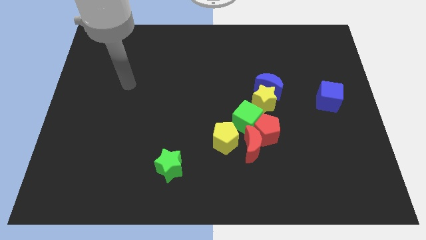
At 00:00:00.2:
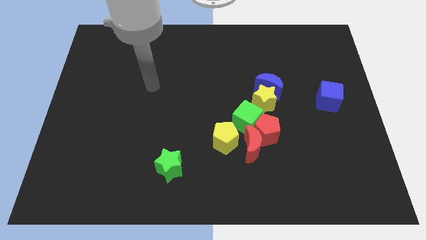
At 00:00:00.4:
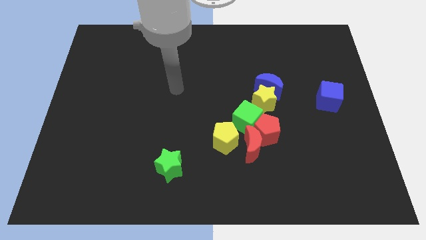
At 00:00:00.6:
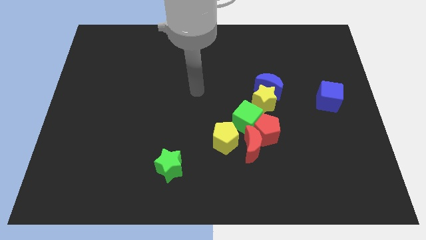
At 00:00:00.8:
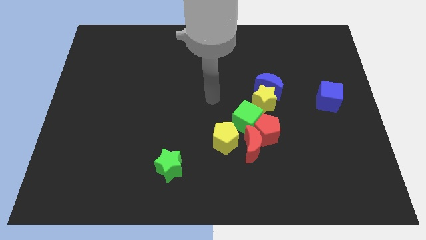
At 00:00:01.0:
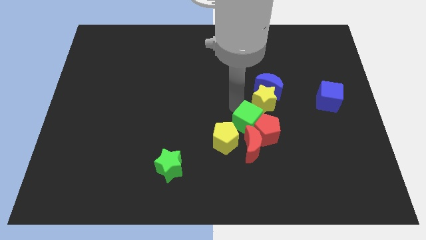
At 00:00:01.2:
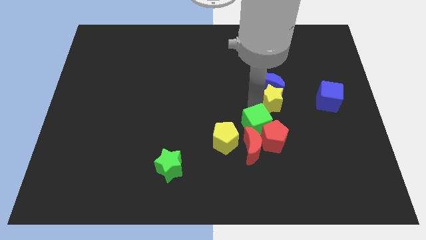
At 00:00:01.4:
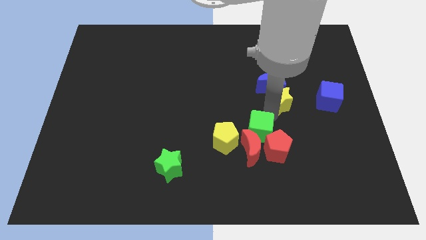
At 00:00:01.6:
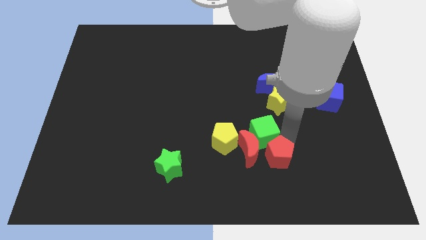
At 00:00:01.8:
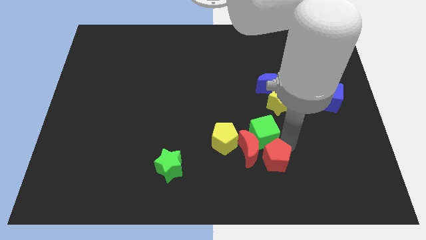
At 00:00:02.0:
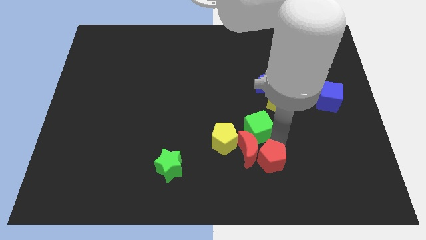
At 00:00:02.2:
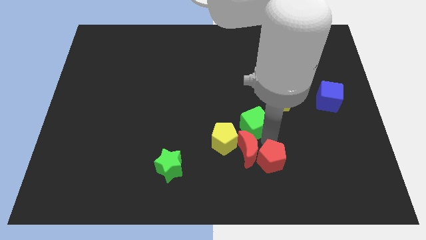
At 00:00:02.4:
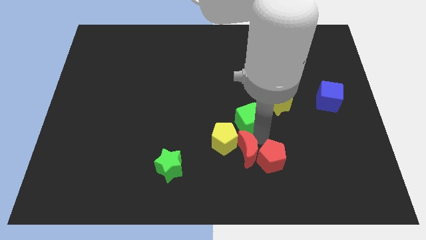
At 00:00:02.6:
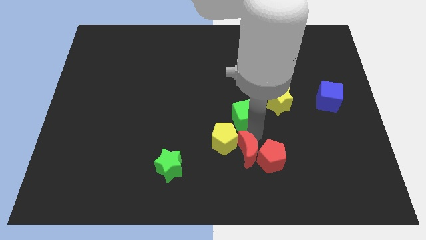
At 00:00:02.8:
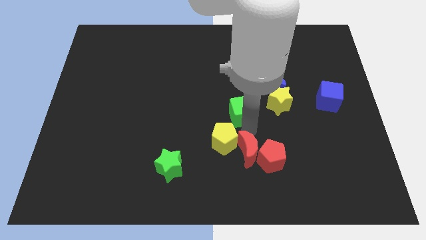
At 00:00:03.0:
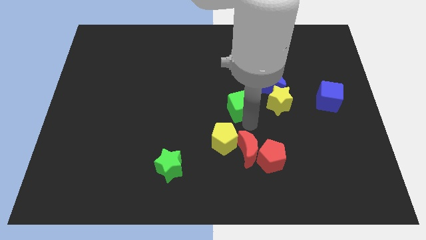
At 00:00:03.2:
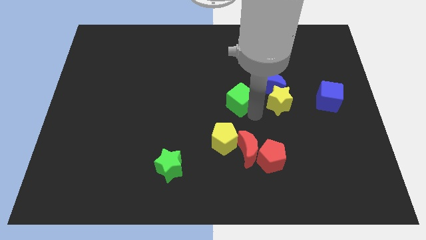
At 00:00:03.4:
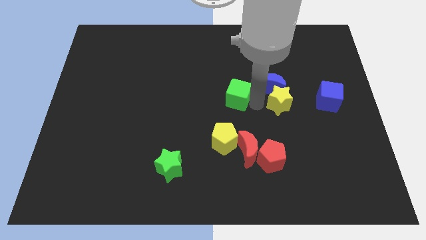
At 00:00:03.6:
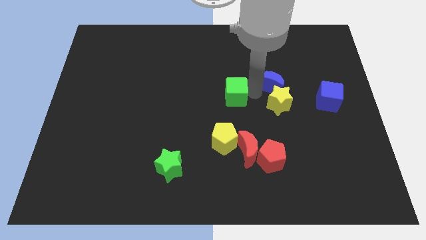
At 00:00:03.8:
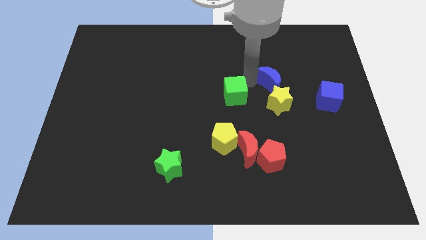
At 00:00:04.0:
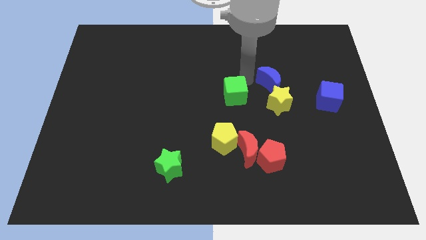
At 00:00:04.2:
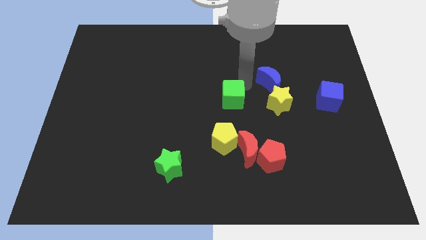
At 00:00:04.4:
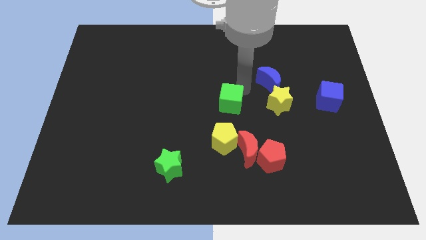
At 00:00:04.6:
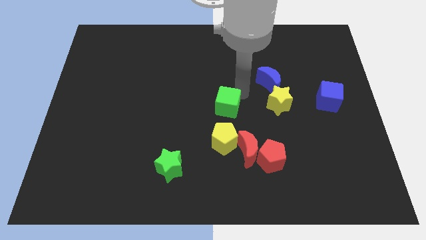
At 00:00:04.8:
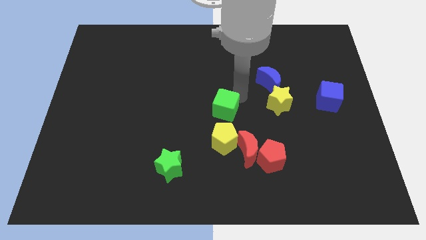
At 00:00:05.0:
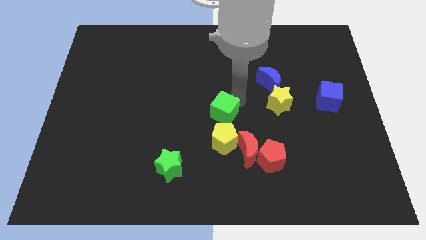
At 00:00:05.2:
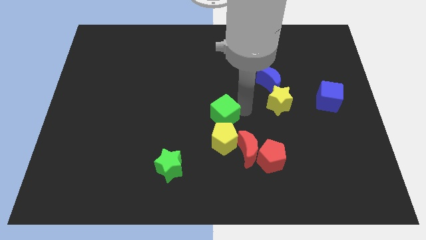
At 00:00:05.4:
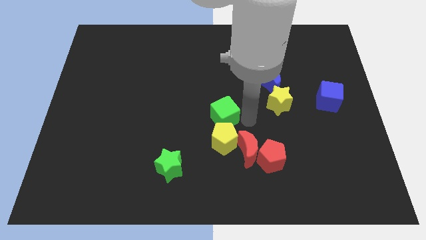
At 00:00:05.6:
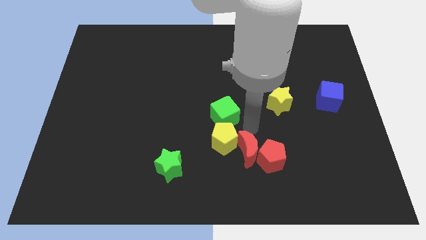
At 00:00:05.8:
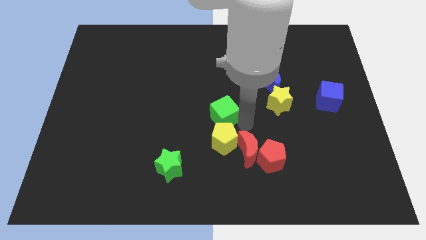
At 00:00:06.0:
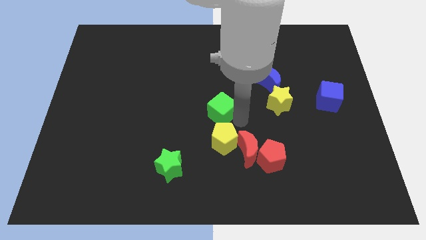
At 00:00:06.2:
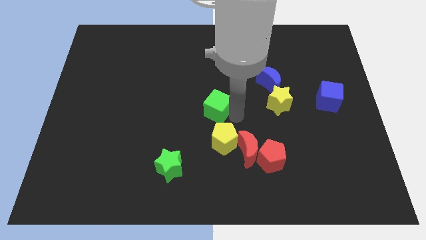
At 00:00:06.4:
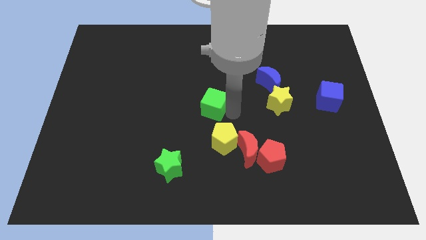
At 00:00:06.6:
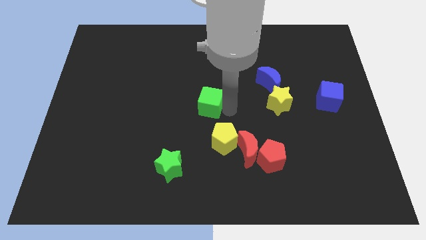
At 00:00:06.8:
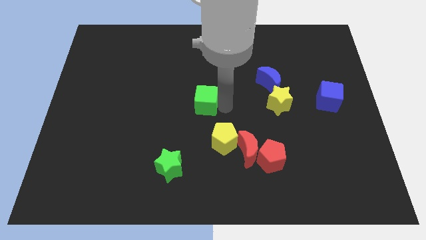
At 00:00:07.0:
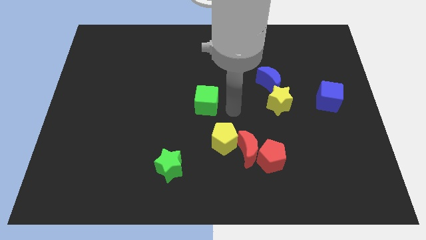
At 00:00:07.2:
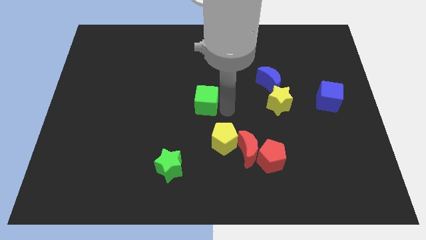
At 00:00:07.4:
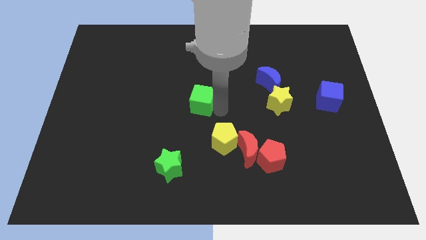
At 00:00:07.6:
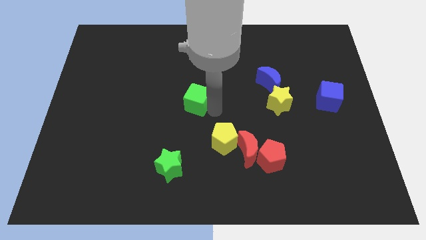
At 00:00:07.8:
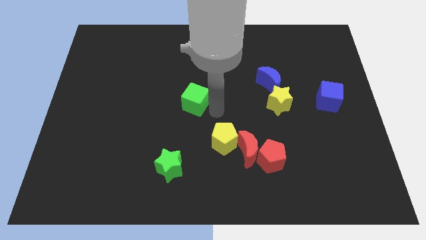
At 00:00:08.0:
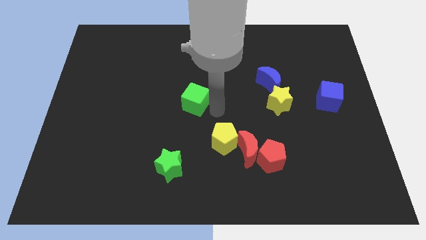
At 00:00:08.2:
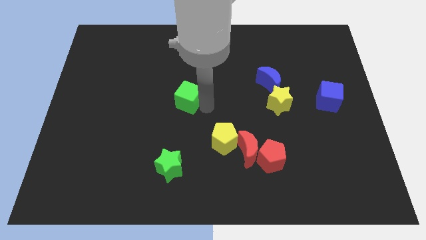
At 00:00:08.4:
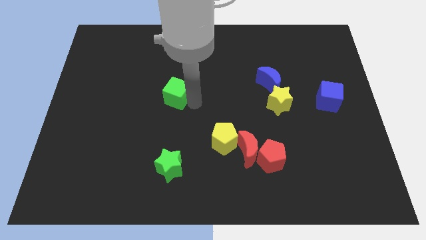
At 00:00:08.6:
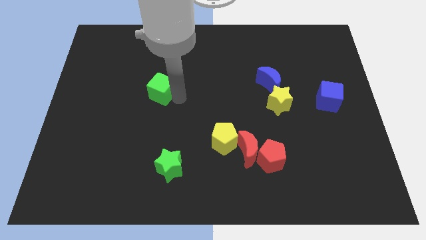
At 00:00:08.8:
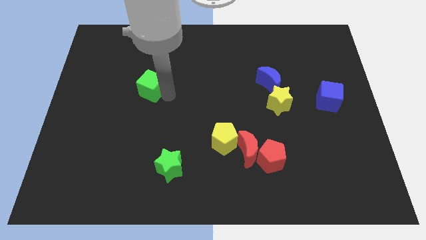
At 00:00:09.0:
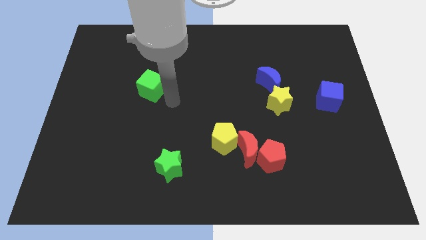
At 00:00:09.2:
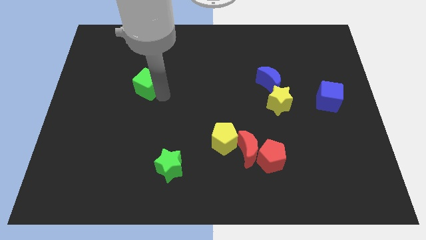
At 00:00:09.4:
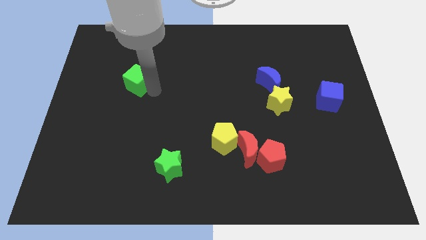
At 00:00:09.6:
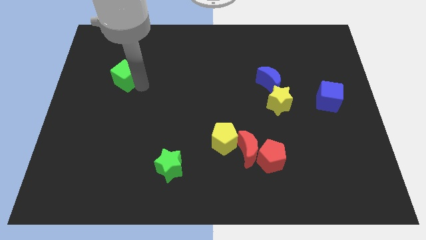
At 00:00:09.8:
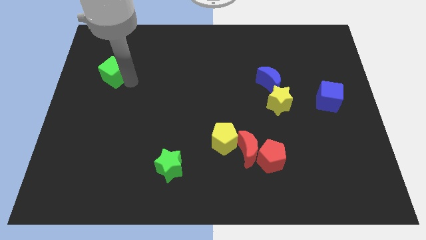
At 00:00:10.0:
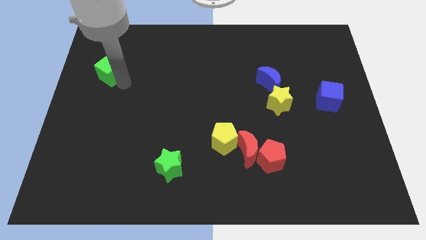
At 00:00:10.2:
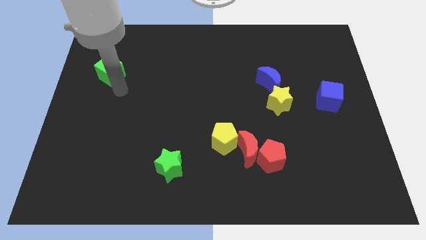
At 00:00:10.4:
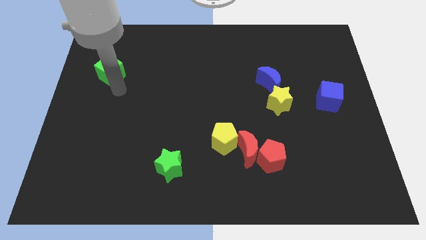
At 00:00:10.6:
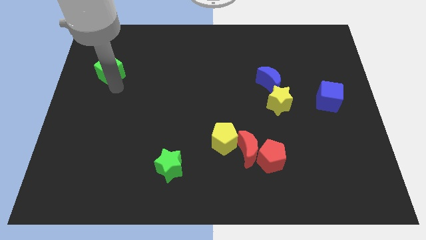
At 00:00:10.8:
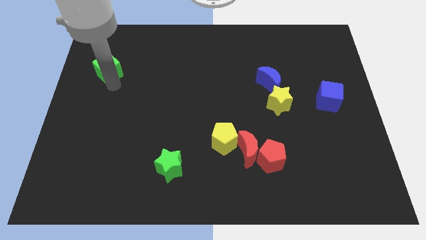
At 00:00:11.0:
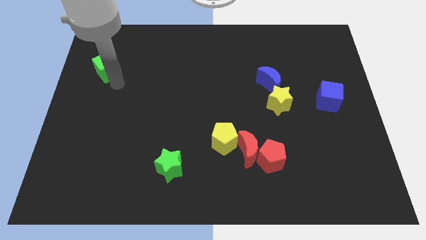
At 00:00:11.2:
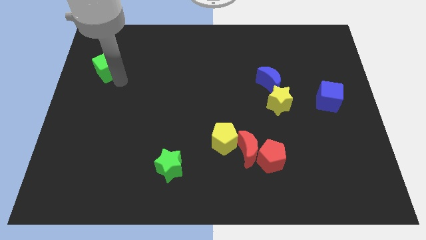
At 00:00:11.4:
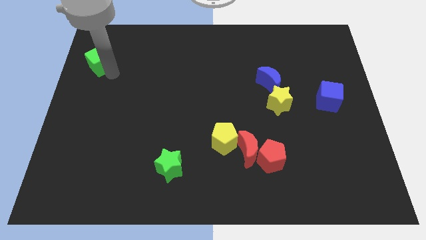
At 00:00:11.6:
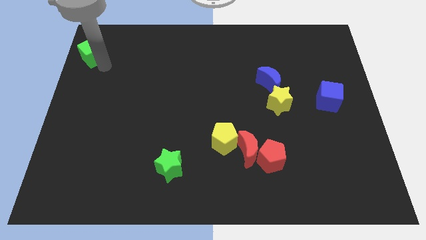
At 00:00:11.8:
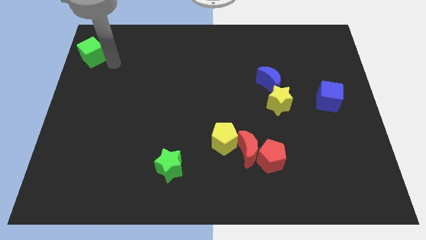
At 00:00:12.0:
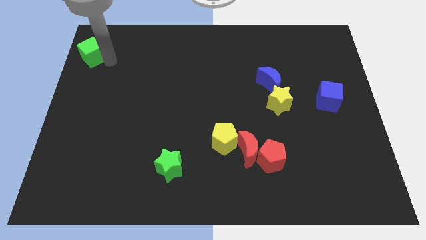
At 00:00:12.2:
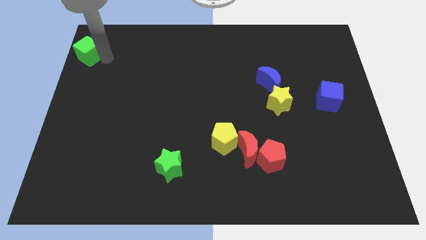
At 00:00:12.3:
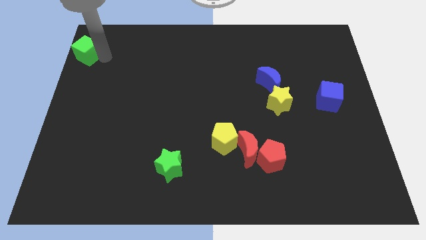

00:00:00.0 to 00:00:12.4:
put the green cube to the upper left corner

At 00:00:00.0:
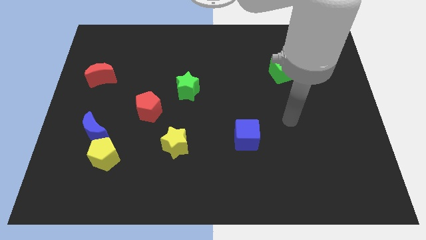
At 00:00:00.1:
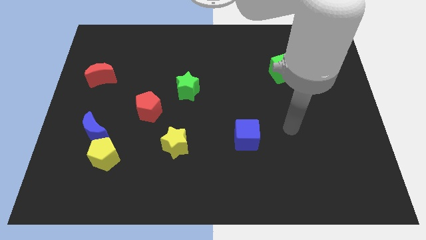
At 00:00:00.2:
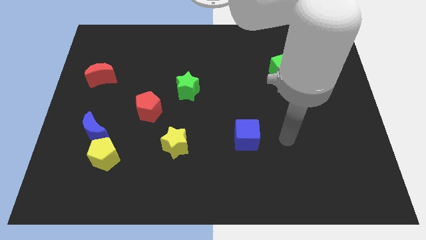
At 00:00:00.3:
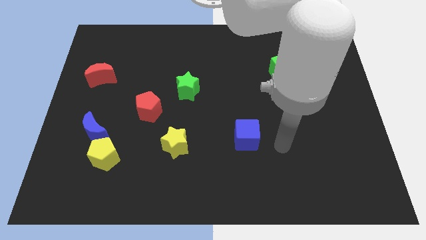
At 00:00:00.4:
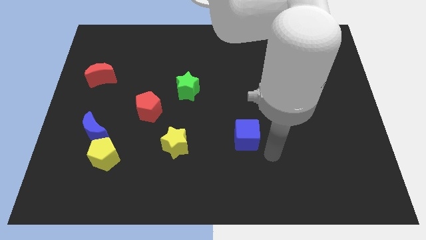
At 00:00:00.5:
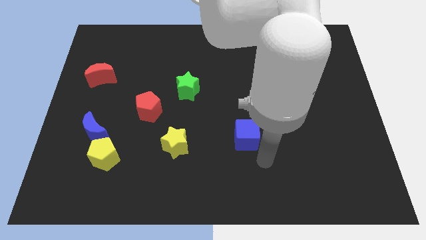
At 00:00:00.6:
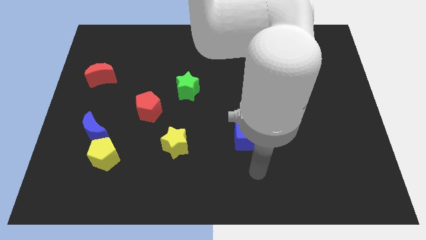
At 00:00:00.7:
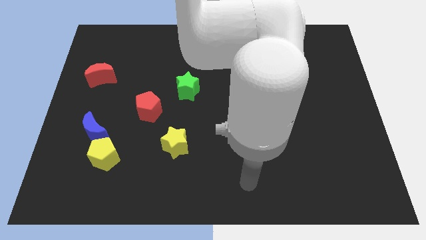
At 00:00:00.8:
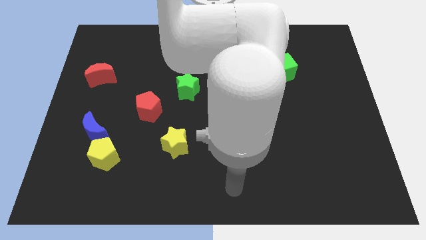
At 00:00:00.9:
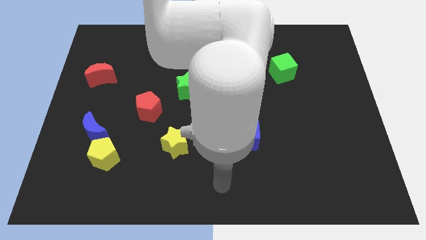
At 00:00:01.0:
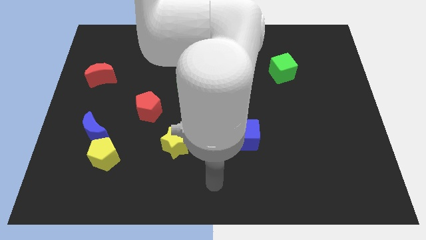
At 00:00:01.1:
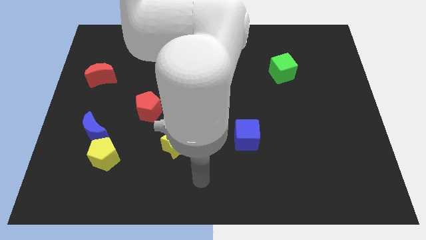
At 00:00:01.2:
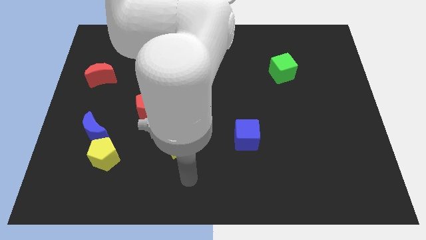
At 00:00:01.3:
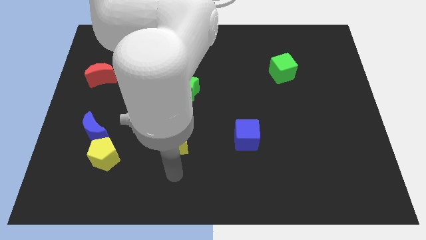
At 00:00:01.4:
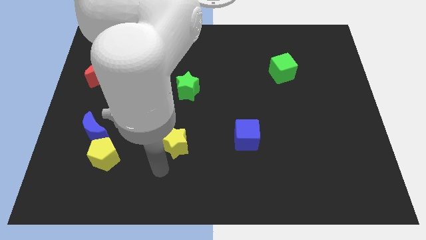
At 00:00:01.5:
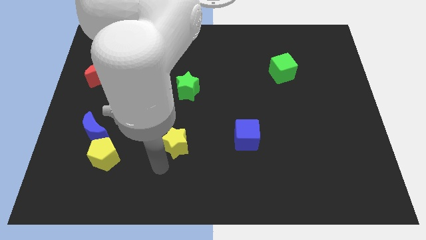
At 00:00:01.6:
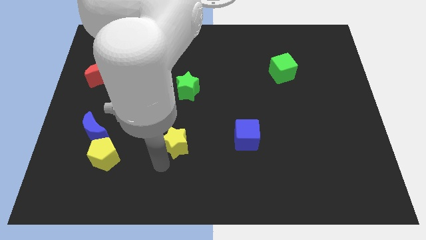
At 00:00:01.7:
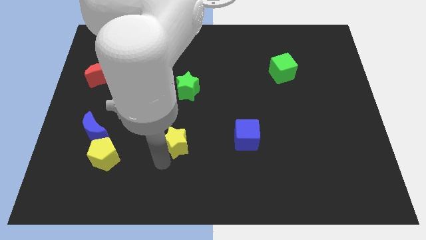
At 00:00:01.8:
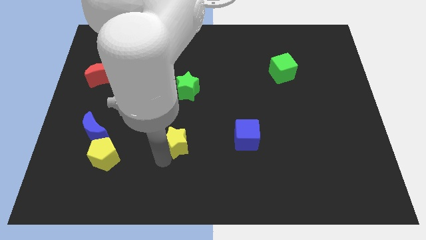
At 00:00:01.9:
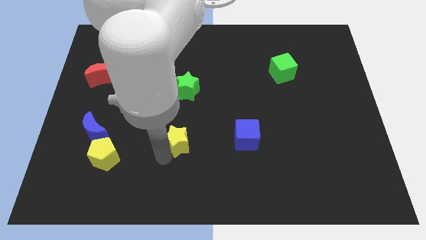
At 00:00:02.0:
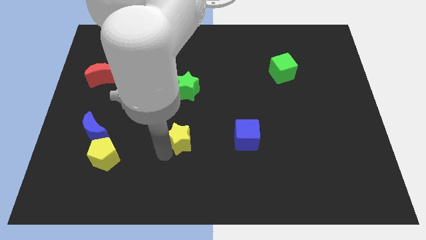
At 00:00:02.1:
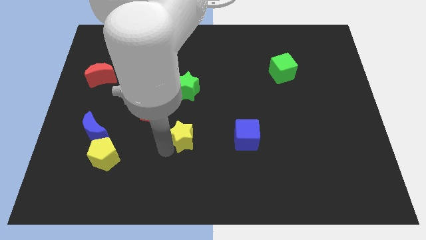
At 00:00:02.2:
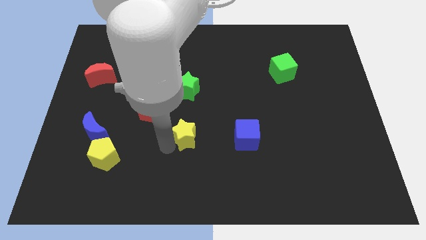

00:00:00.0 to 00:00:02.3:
slide the yellow star to the center of the board
